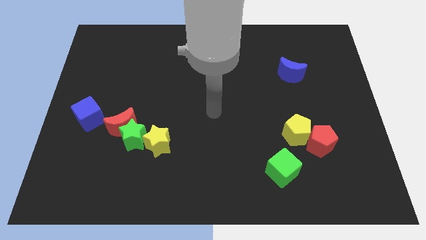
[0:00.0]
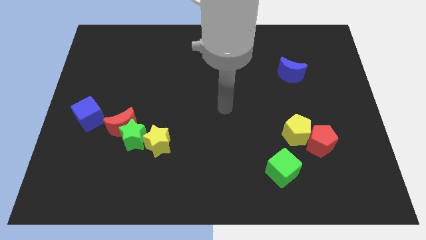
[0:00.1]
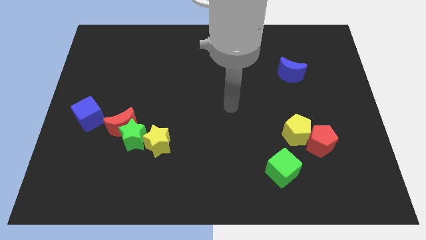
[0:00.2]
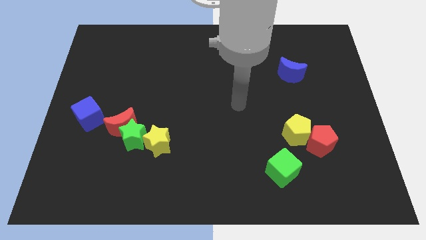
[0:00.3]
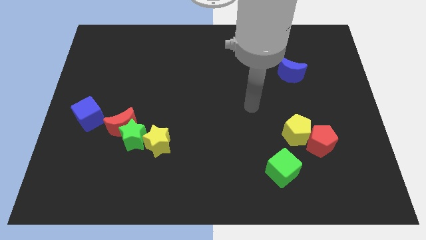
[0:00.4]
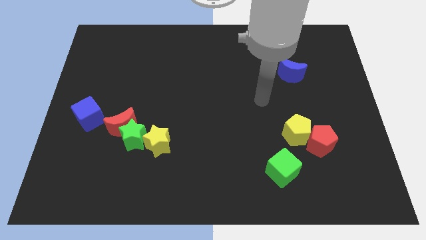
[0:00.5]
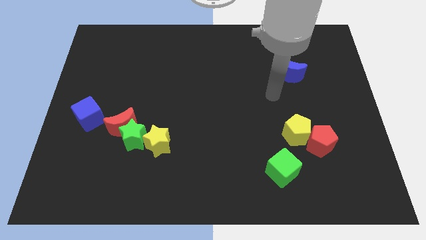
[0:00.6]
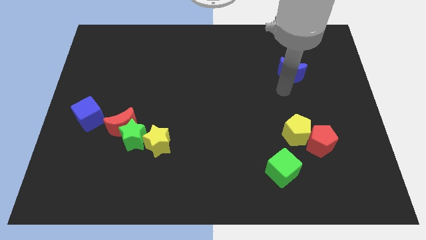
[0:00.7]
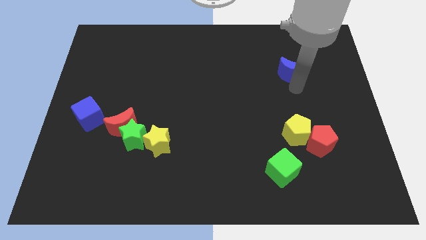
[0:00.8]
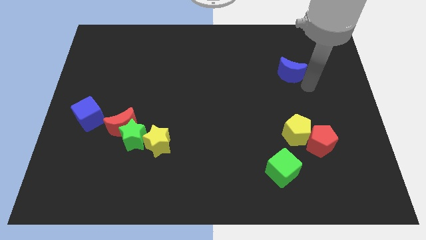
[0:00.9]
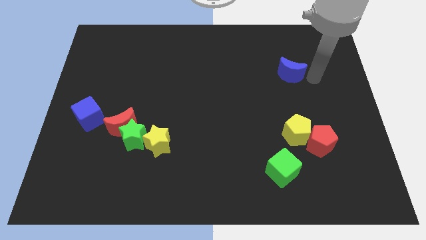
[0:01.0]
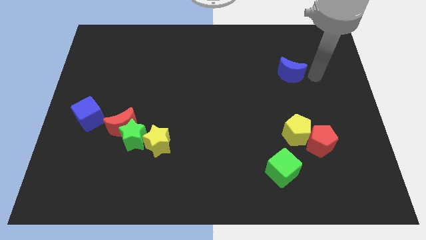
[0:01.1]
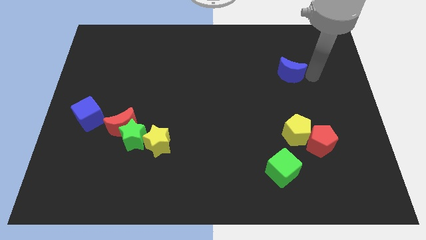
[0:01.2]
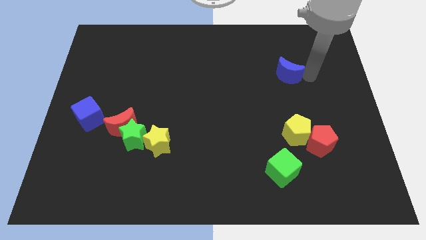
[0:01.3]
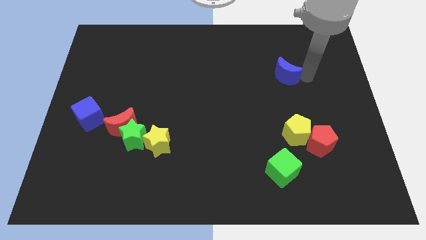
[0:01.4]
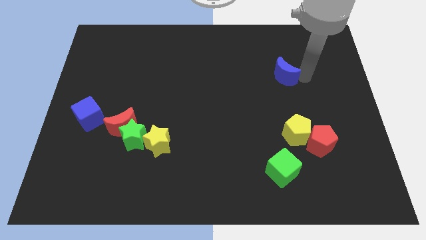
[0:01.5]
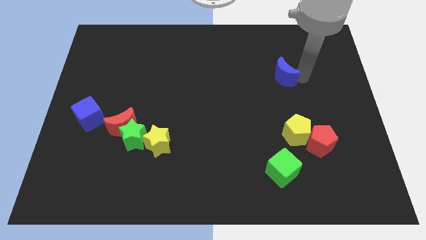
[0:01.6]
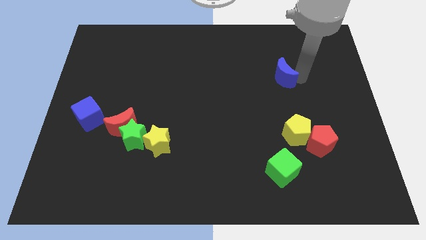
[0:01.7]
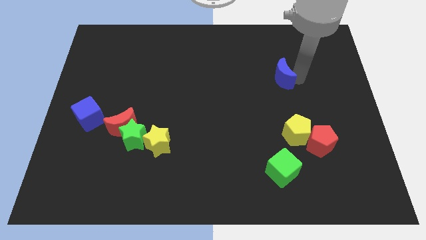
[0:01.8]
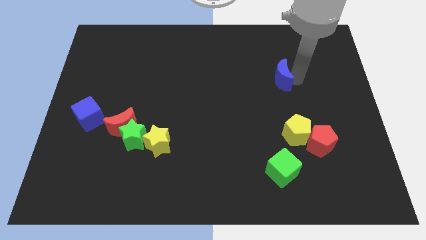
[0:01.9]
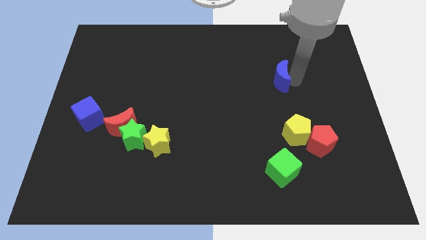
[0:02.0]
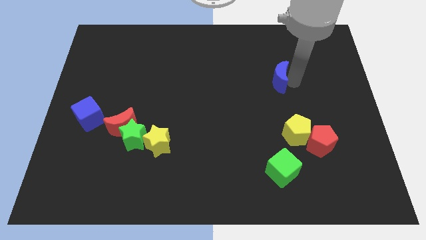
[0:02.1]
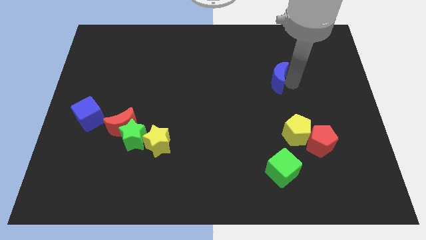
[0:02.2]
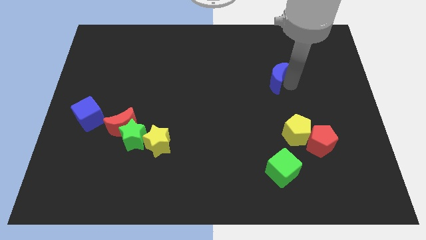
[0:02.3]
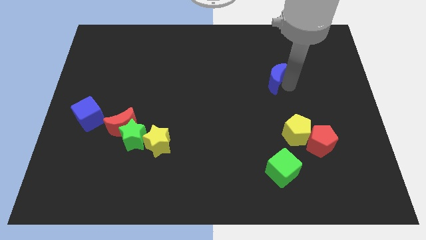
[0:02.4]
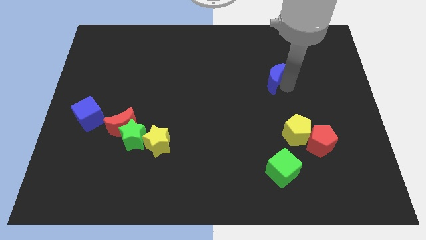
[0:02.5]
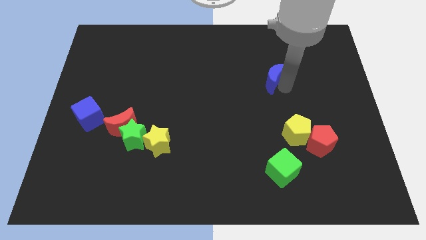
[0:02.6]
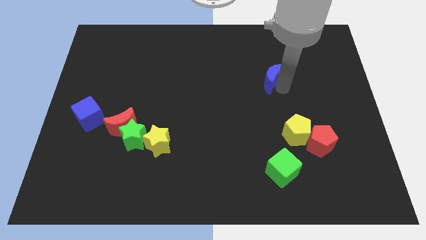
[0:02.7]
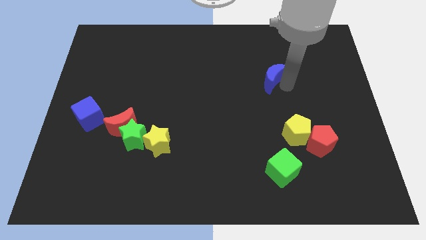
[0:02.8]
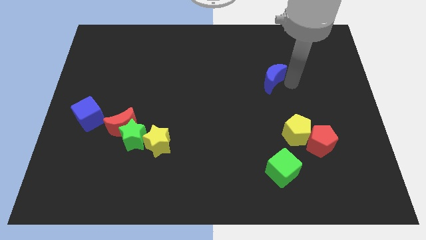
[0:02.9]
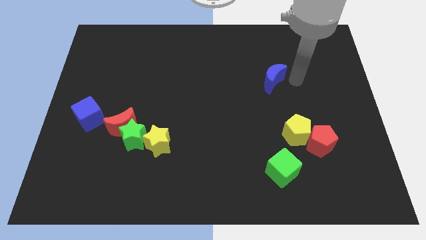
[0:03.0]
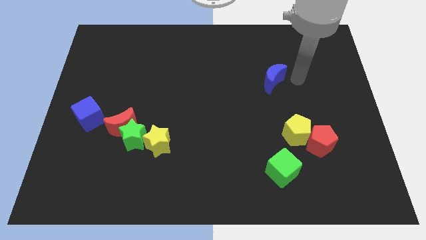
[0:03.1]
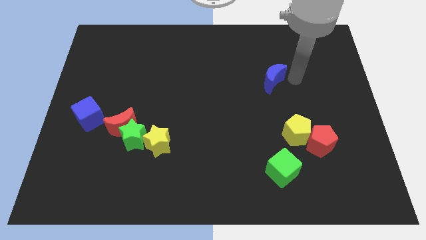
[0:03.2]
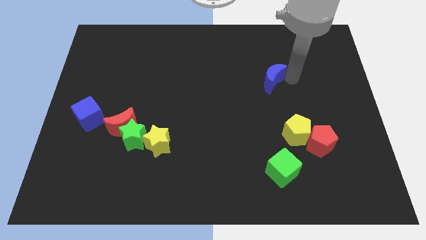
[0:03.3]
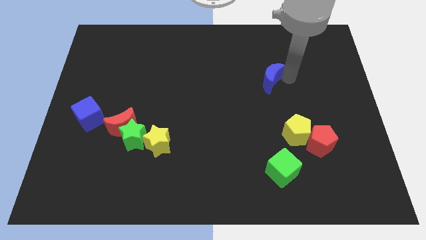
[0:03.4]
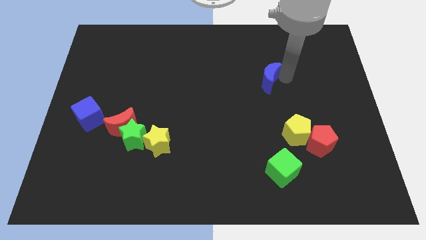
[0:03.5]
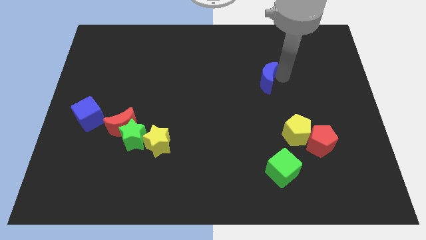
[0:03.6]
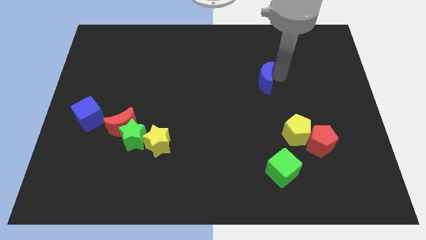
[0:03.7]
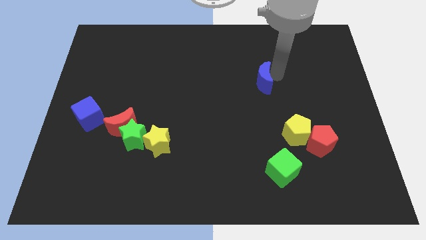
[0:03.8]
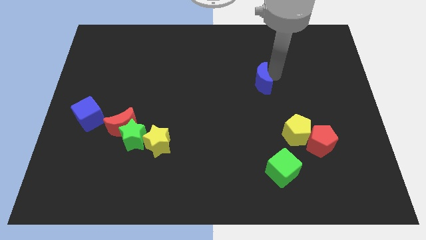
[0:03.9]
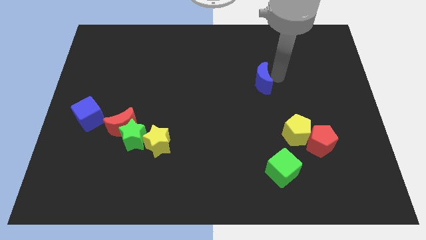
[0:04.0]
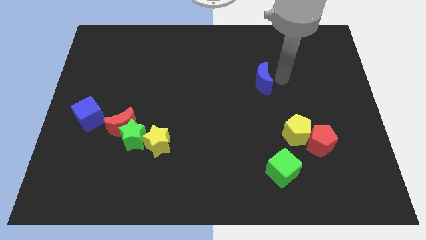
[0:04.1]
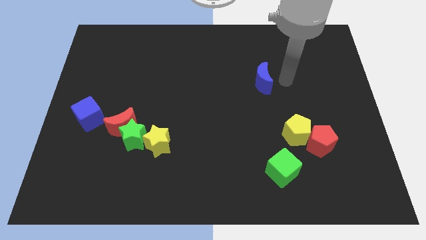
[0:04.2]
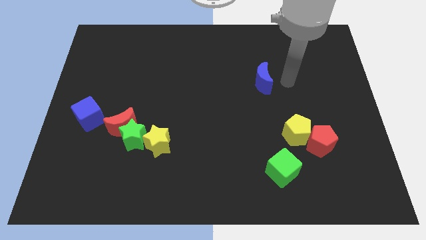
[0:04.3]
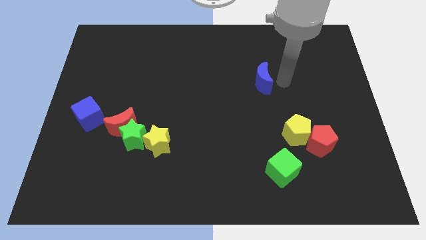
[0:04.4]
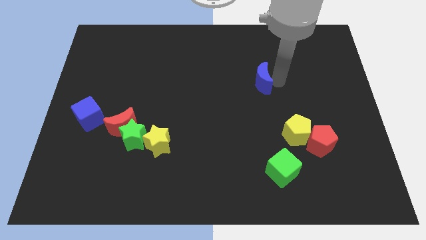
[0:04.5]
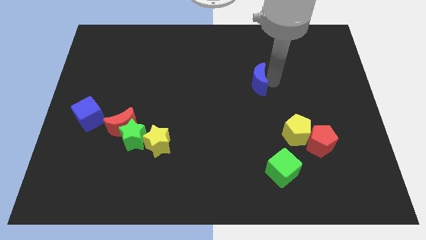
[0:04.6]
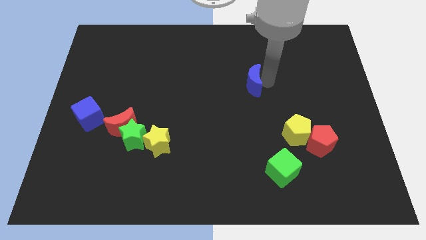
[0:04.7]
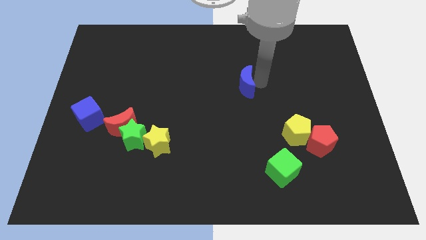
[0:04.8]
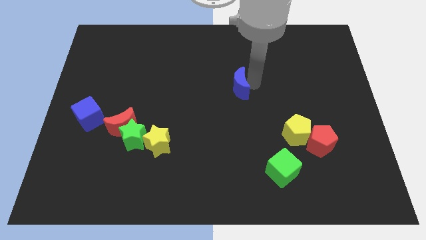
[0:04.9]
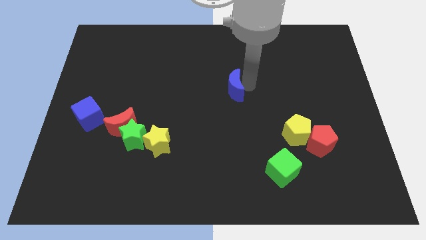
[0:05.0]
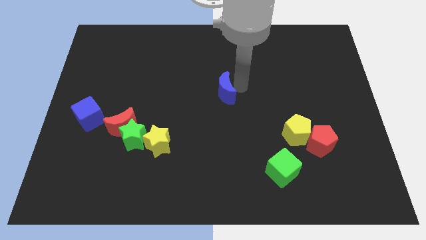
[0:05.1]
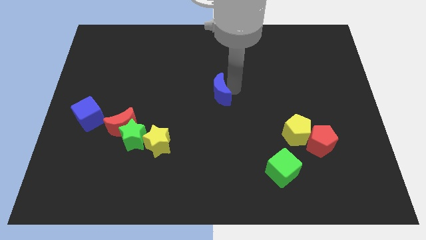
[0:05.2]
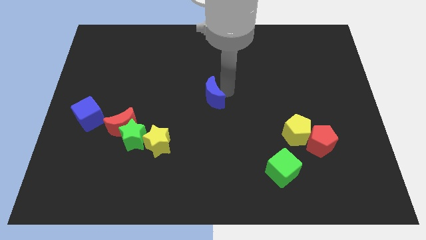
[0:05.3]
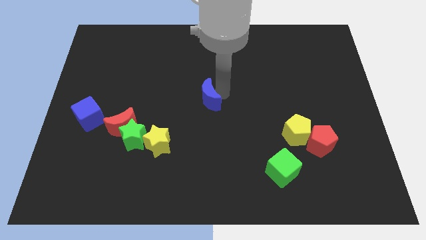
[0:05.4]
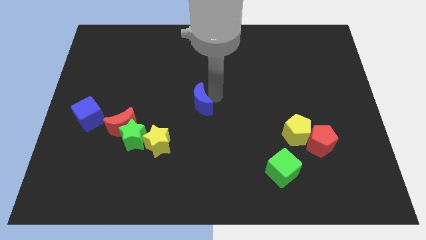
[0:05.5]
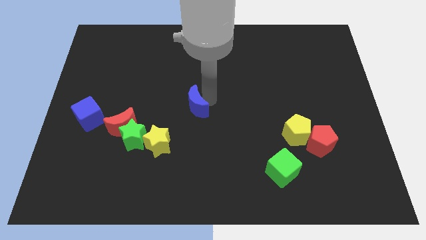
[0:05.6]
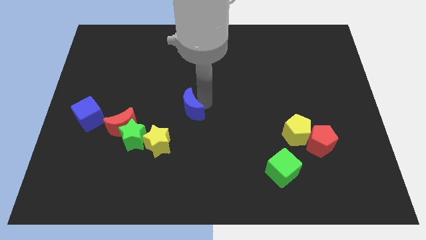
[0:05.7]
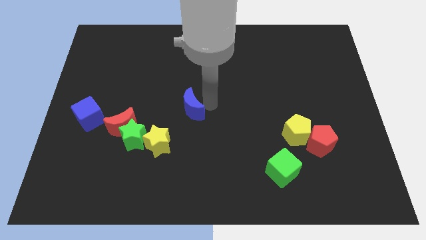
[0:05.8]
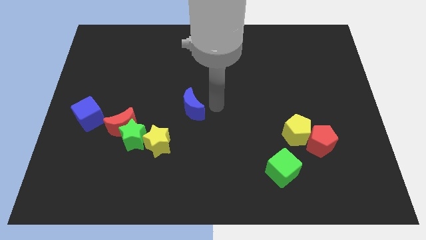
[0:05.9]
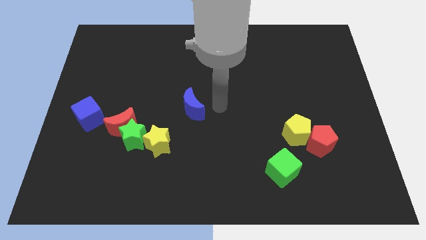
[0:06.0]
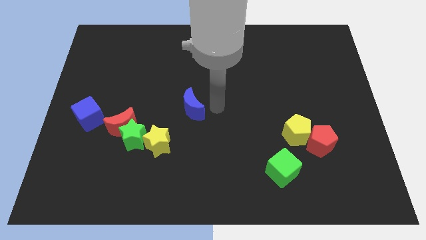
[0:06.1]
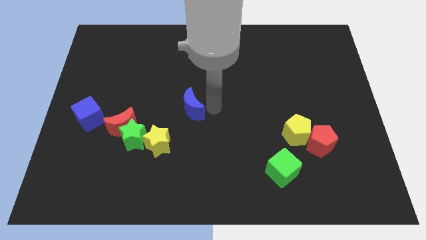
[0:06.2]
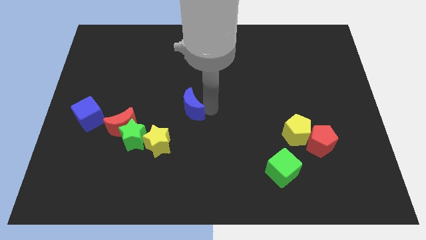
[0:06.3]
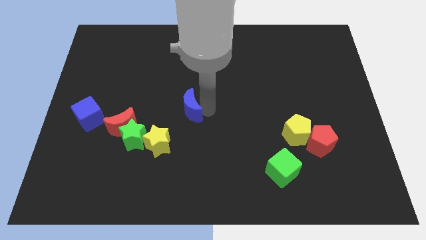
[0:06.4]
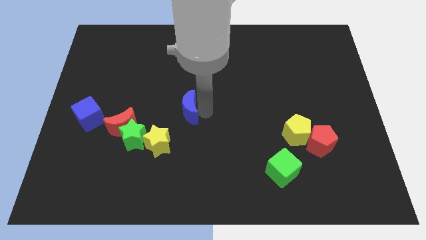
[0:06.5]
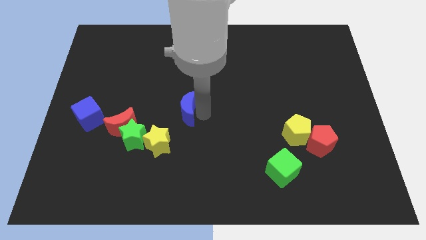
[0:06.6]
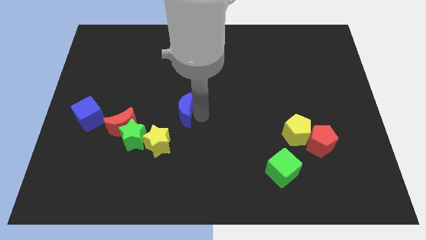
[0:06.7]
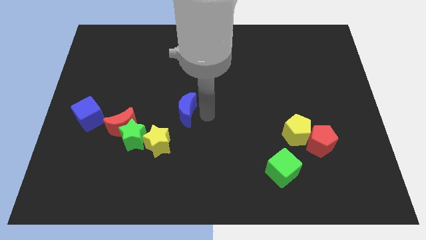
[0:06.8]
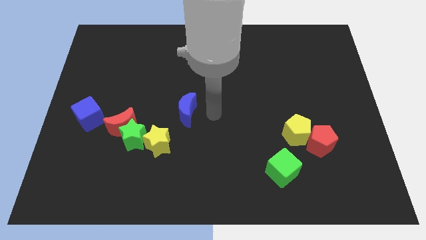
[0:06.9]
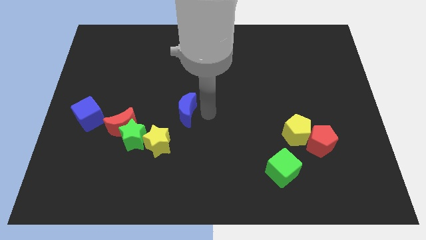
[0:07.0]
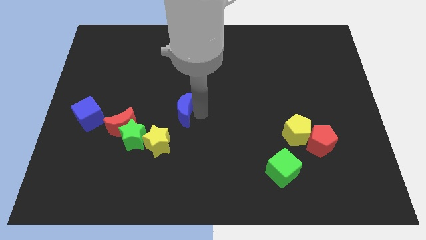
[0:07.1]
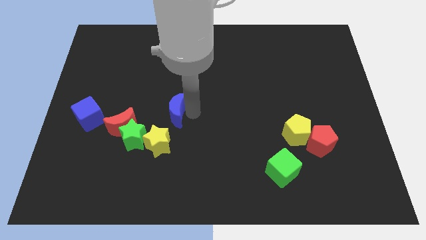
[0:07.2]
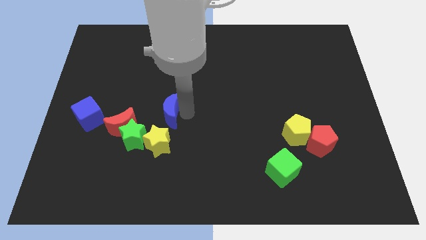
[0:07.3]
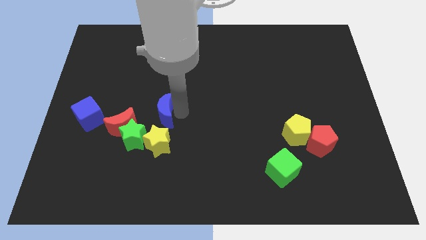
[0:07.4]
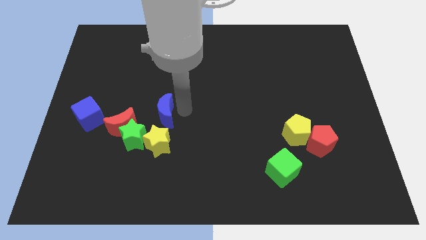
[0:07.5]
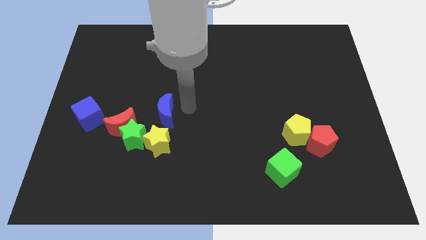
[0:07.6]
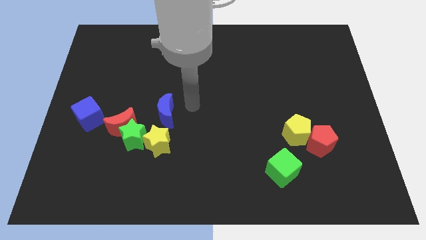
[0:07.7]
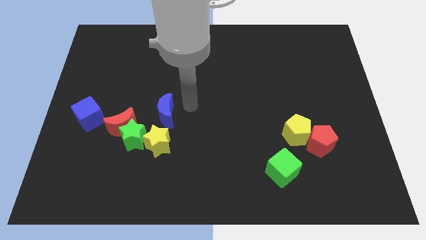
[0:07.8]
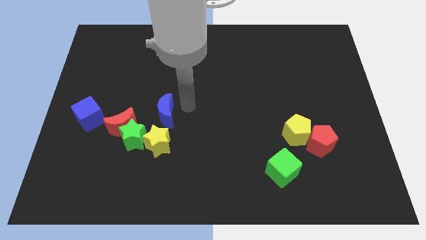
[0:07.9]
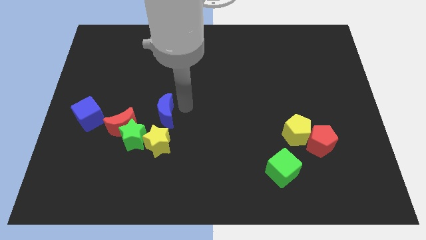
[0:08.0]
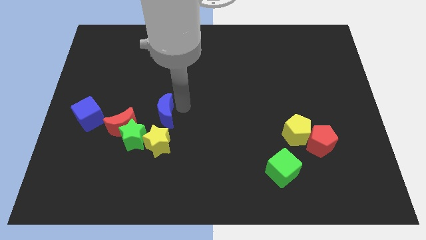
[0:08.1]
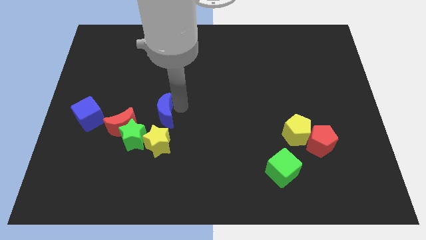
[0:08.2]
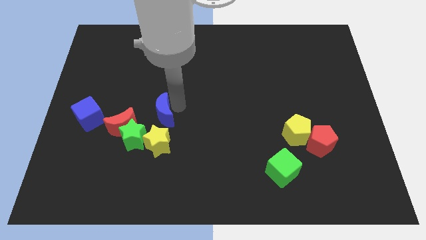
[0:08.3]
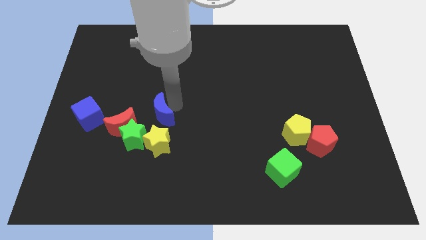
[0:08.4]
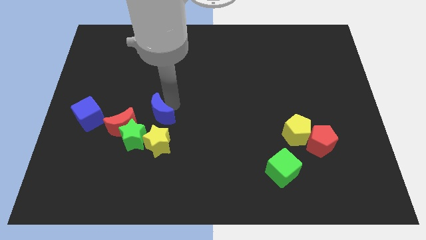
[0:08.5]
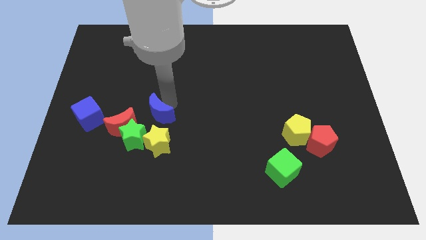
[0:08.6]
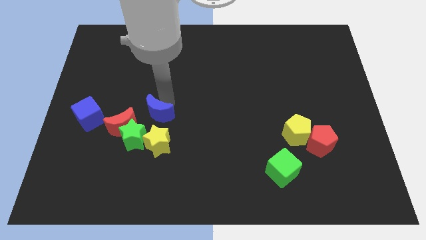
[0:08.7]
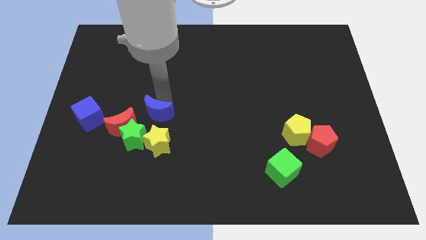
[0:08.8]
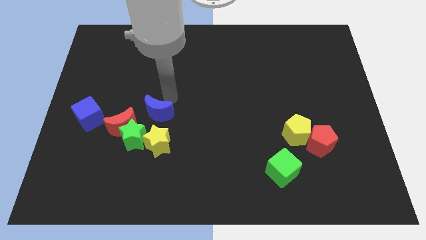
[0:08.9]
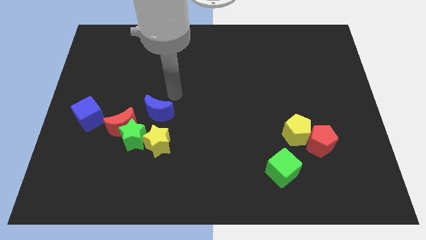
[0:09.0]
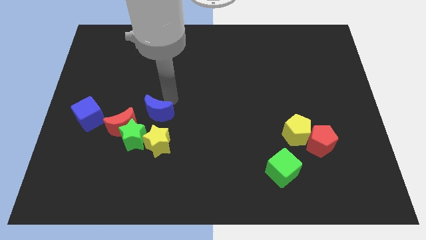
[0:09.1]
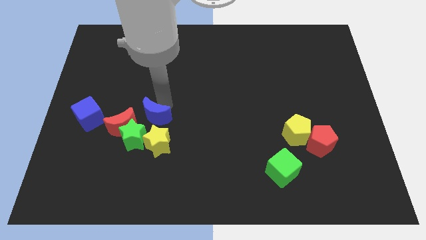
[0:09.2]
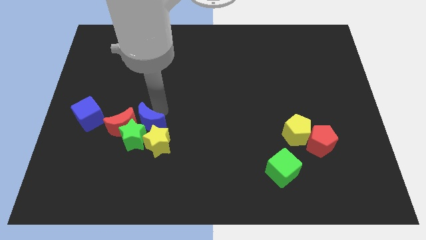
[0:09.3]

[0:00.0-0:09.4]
slide the blue moon next to the green star
